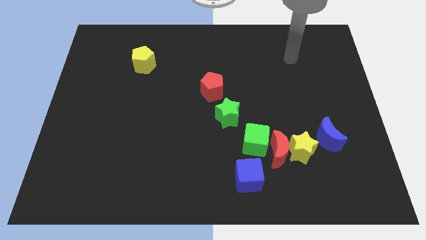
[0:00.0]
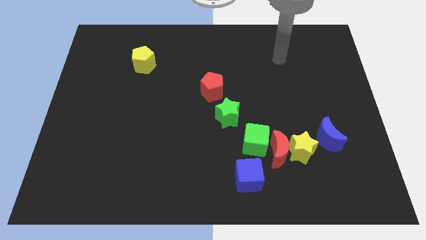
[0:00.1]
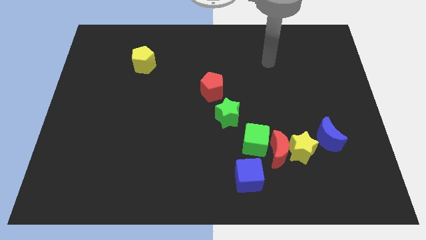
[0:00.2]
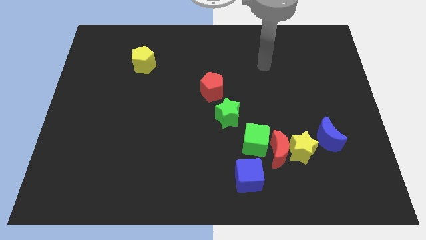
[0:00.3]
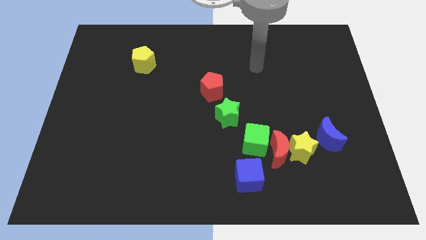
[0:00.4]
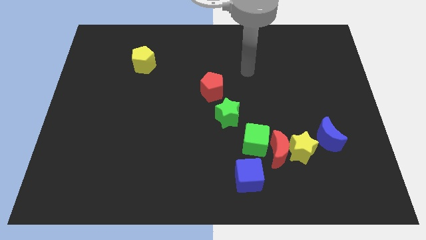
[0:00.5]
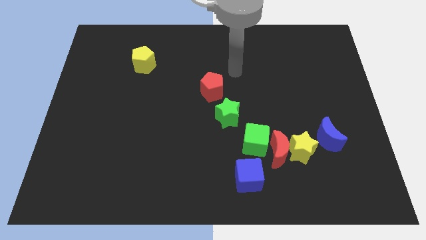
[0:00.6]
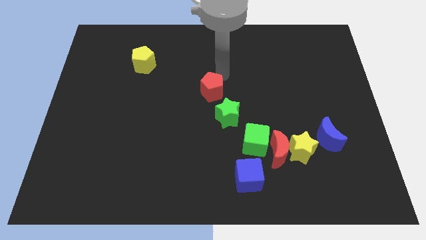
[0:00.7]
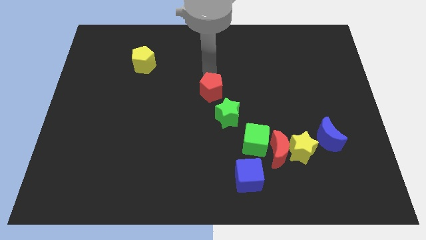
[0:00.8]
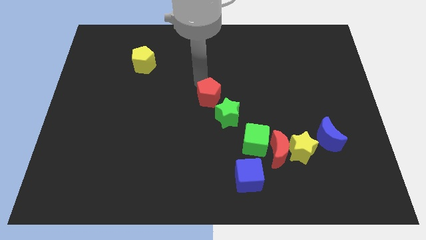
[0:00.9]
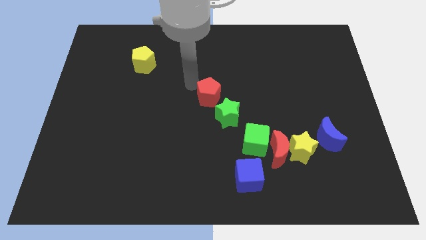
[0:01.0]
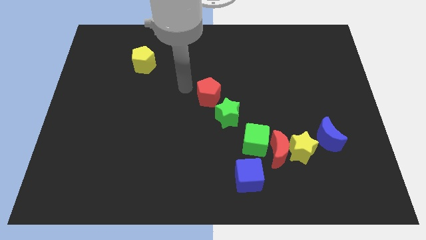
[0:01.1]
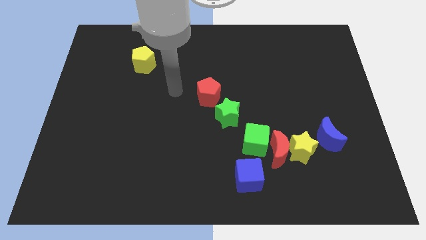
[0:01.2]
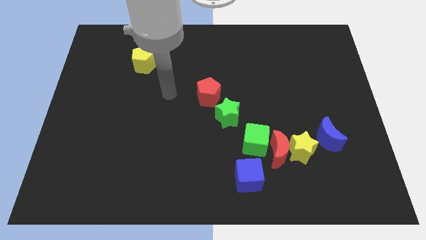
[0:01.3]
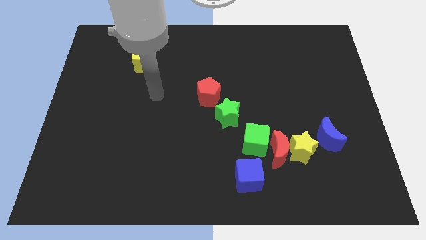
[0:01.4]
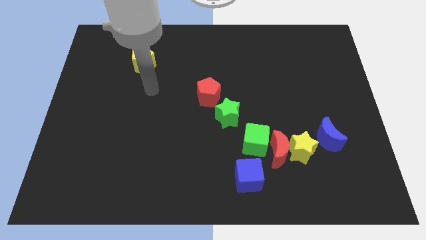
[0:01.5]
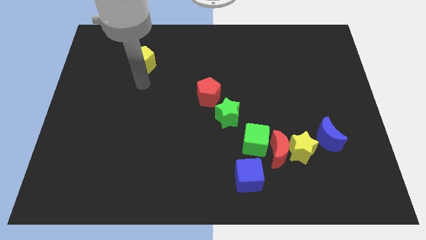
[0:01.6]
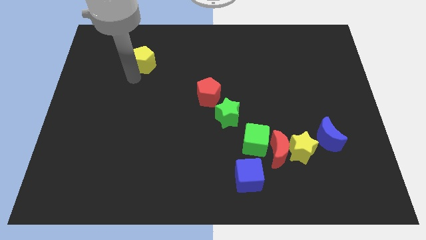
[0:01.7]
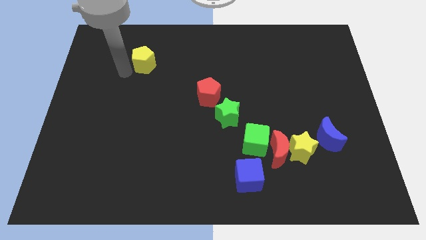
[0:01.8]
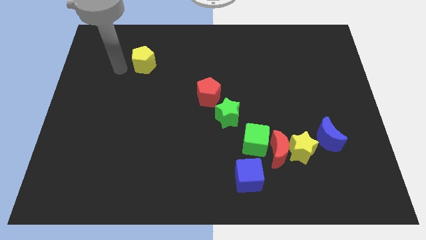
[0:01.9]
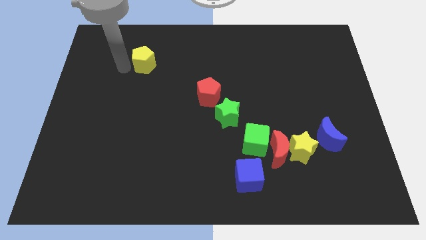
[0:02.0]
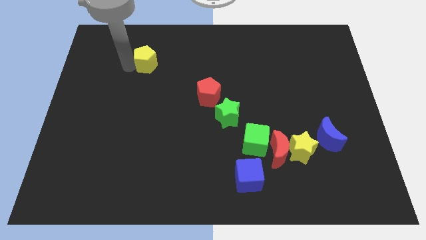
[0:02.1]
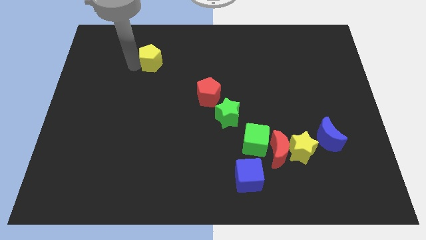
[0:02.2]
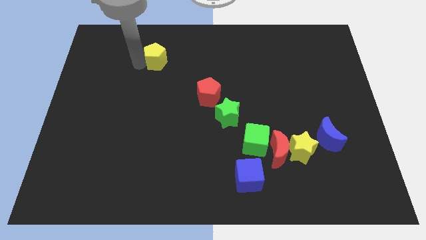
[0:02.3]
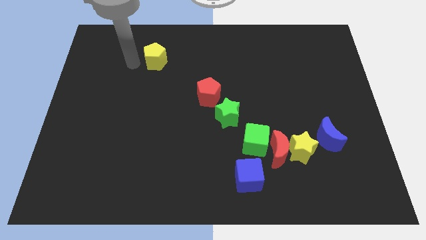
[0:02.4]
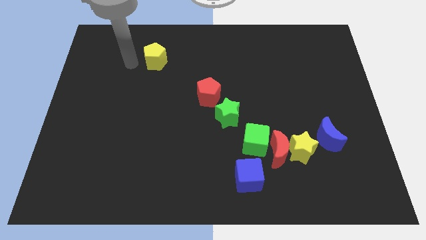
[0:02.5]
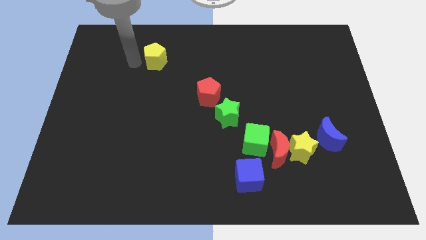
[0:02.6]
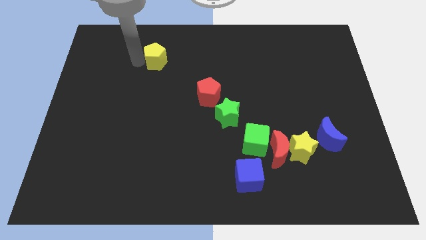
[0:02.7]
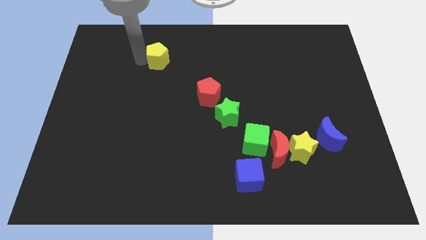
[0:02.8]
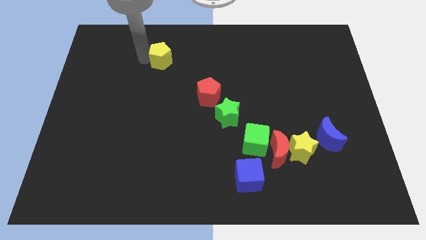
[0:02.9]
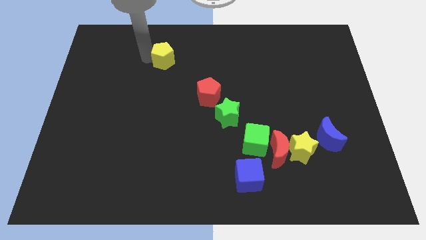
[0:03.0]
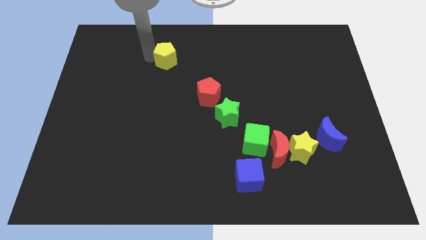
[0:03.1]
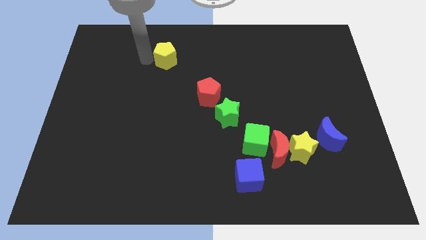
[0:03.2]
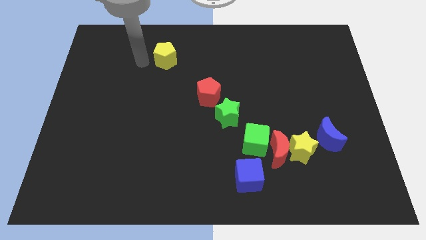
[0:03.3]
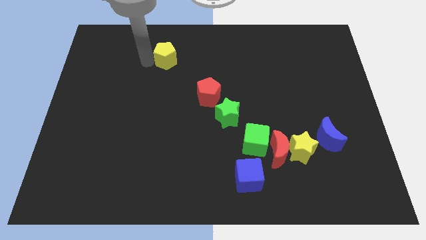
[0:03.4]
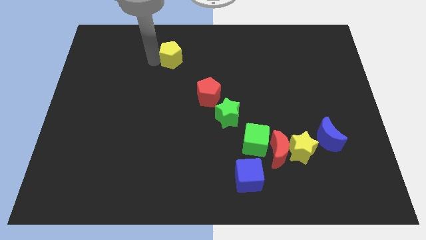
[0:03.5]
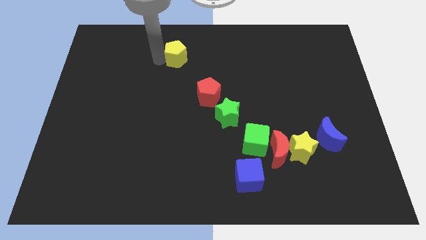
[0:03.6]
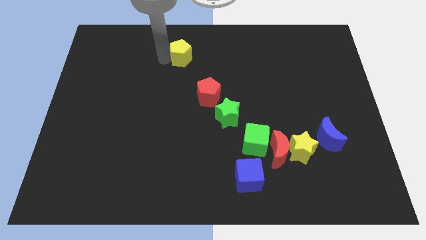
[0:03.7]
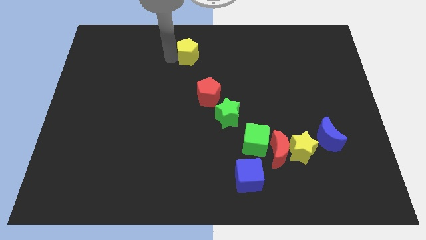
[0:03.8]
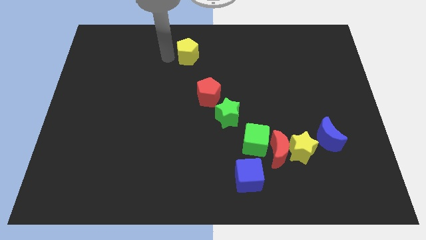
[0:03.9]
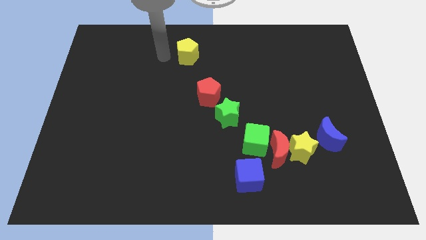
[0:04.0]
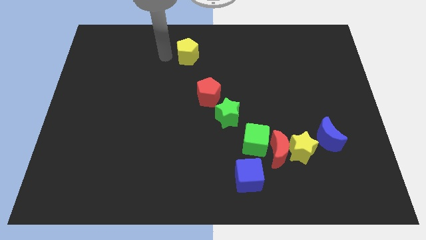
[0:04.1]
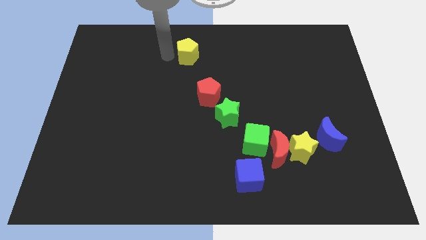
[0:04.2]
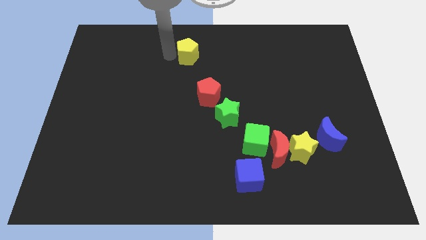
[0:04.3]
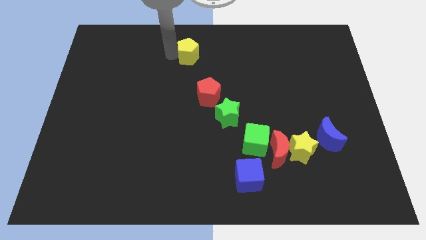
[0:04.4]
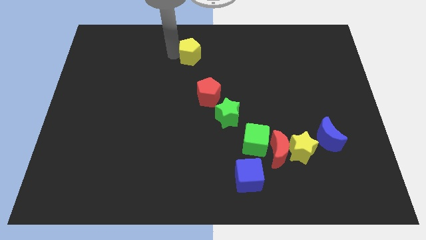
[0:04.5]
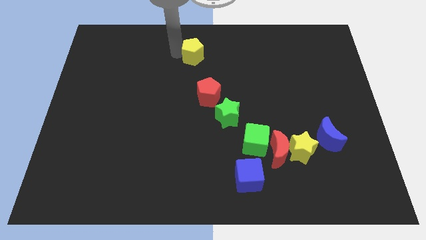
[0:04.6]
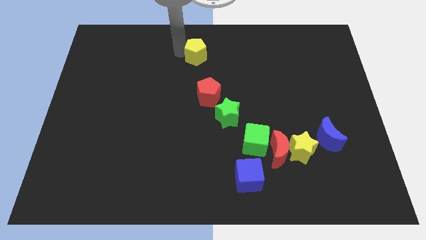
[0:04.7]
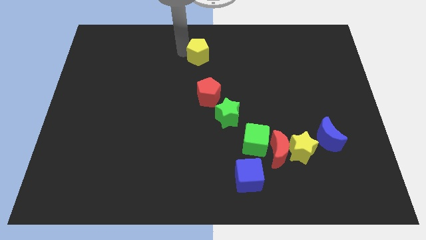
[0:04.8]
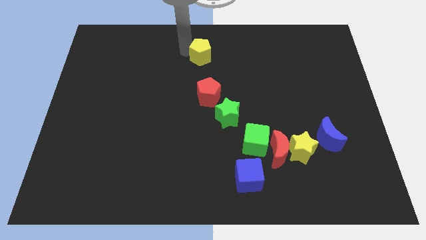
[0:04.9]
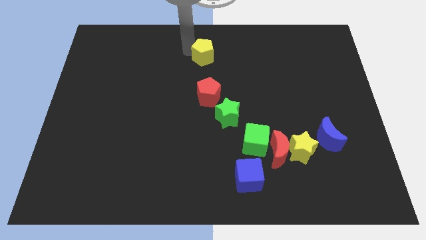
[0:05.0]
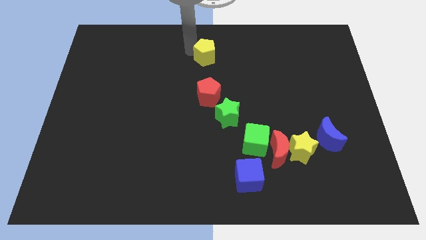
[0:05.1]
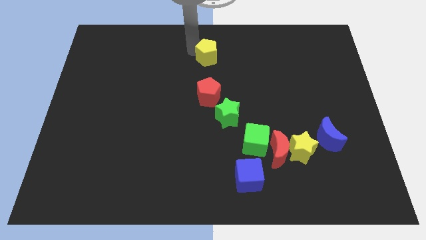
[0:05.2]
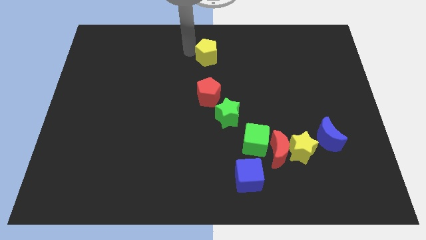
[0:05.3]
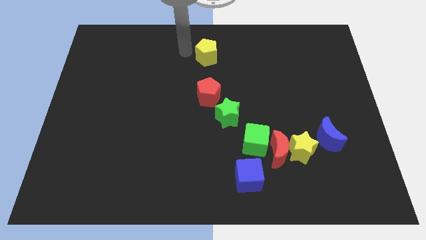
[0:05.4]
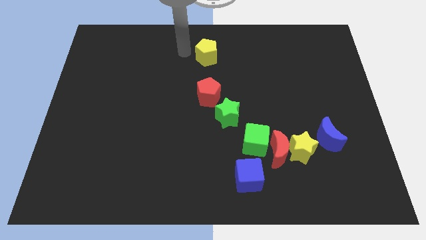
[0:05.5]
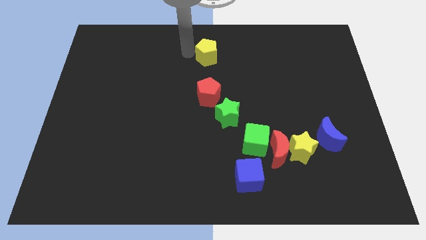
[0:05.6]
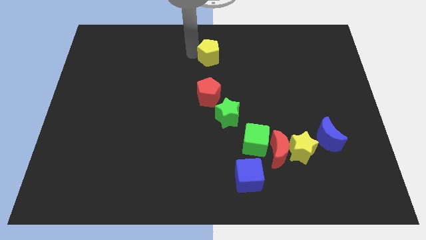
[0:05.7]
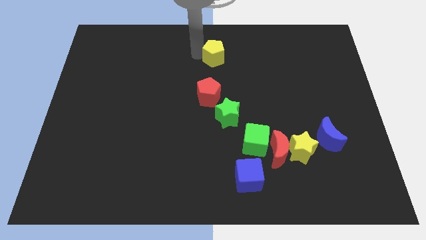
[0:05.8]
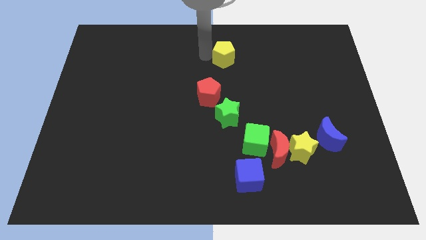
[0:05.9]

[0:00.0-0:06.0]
move the yellow pentagon right

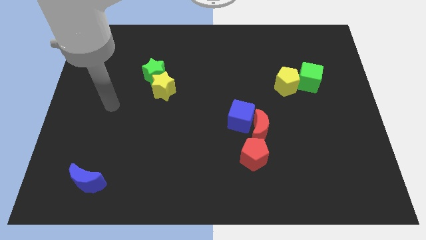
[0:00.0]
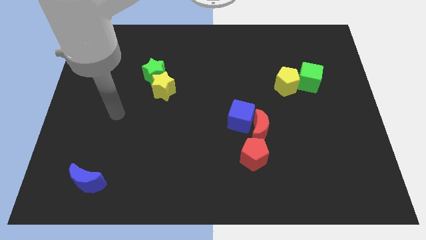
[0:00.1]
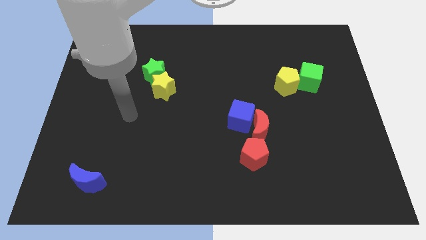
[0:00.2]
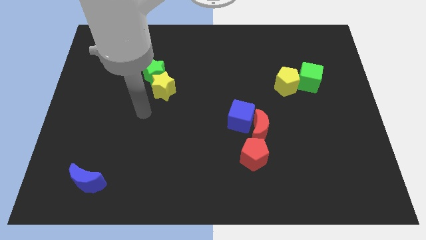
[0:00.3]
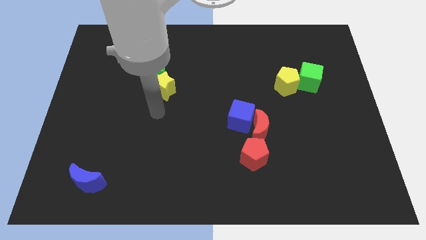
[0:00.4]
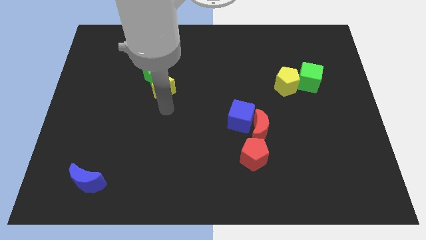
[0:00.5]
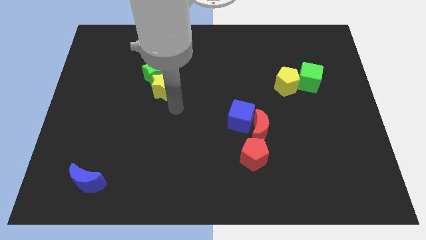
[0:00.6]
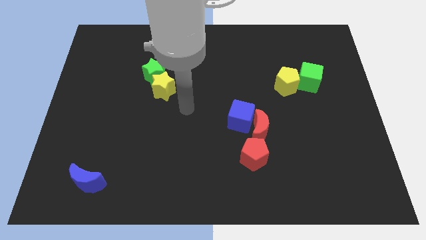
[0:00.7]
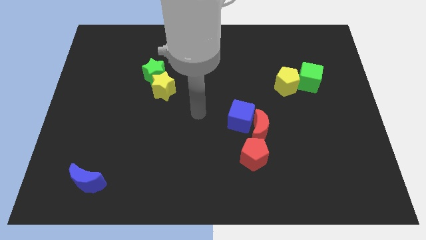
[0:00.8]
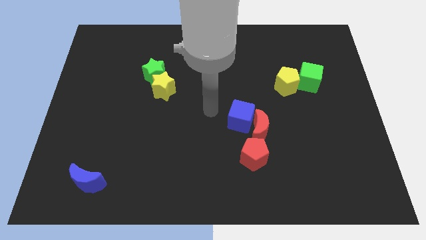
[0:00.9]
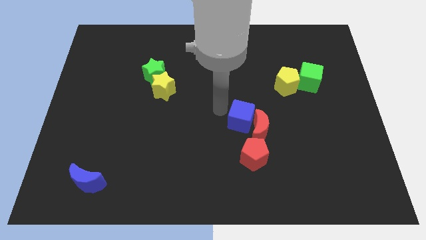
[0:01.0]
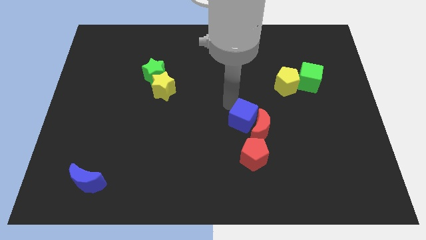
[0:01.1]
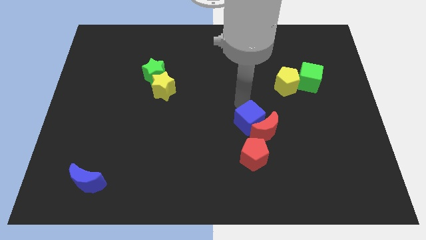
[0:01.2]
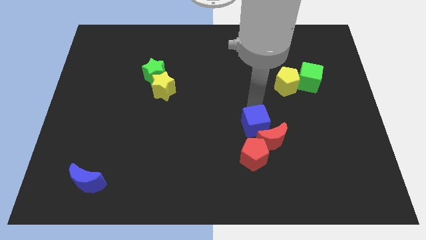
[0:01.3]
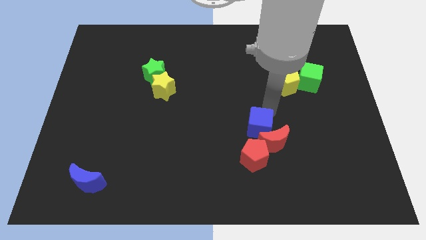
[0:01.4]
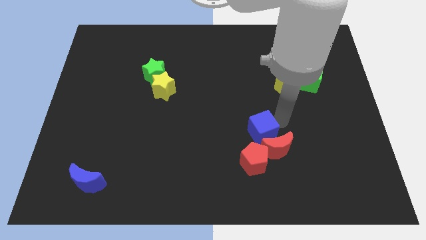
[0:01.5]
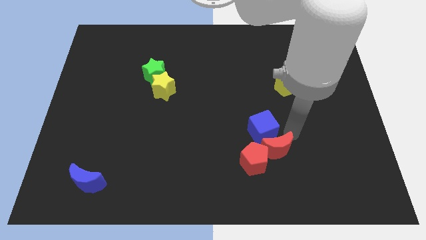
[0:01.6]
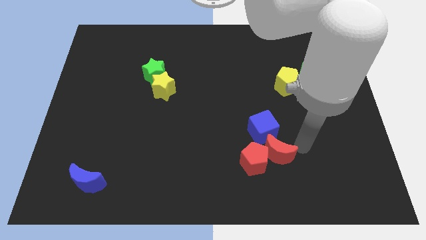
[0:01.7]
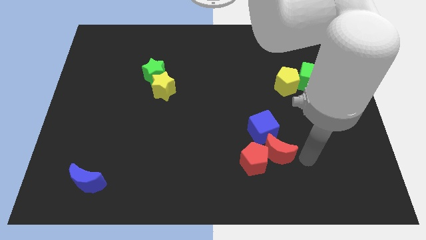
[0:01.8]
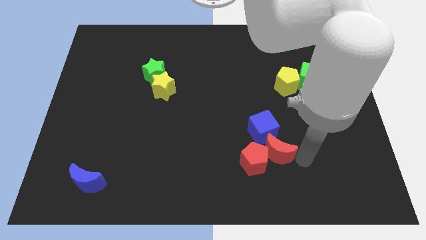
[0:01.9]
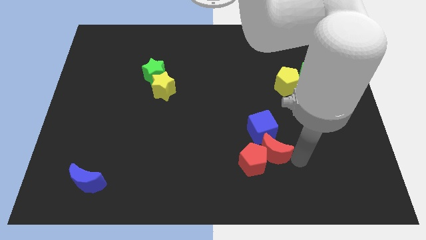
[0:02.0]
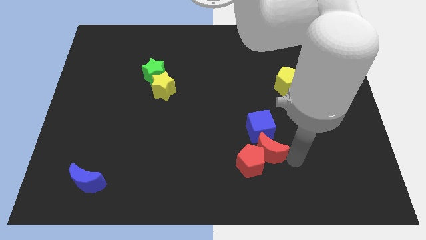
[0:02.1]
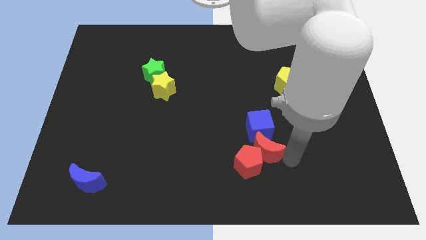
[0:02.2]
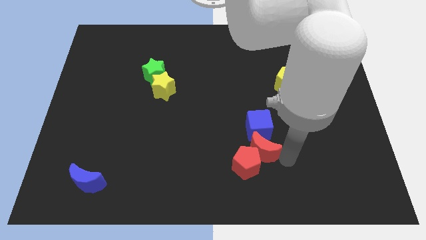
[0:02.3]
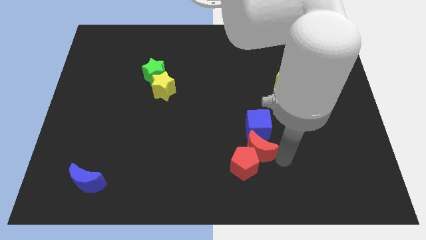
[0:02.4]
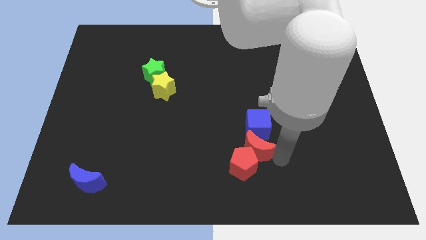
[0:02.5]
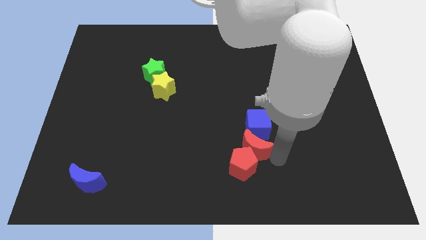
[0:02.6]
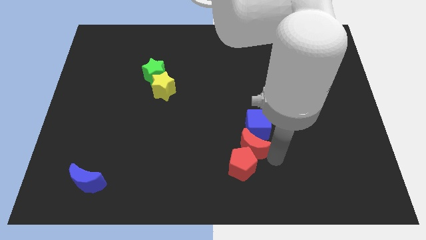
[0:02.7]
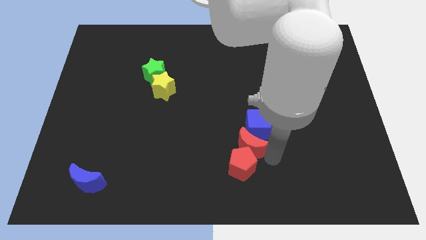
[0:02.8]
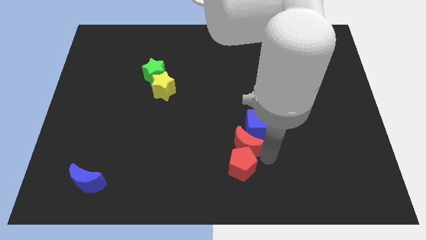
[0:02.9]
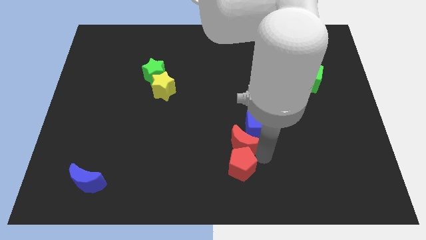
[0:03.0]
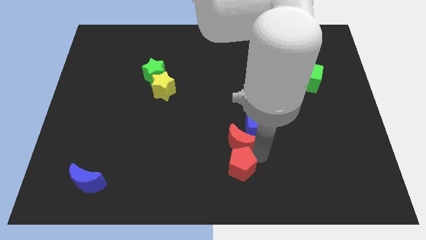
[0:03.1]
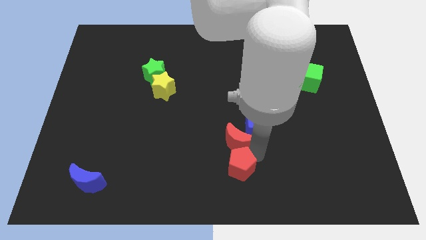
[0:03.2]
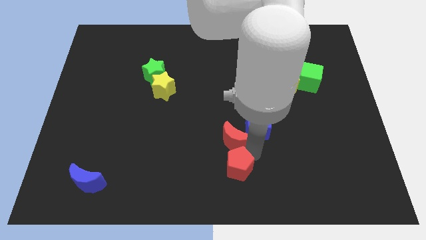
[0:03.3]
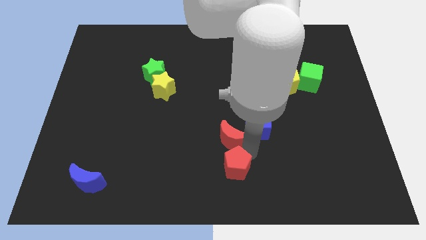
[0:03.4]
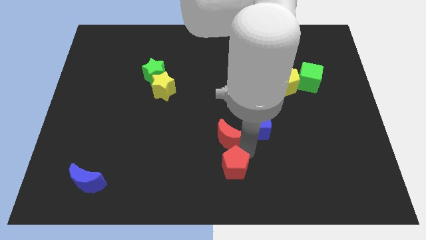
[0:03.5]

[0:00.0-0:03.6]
push the red moon left a little
